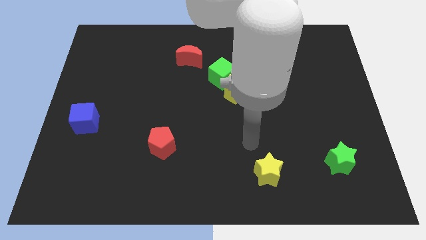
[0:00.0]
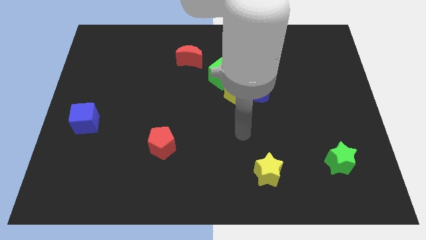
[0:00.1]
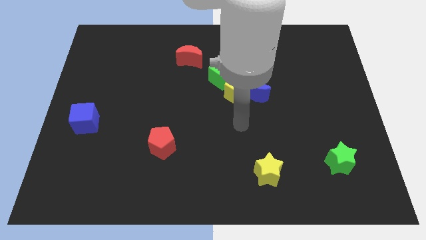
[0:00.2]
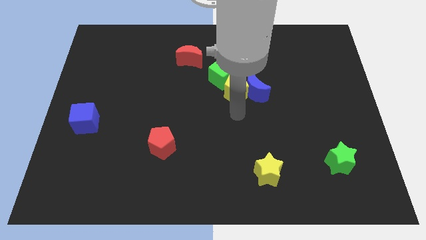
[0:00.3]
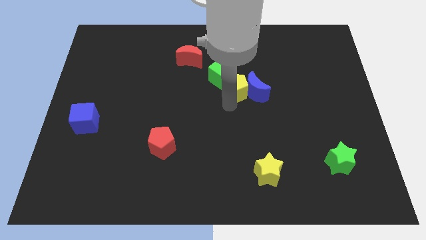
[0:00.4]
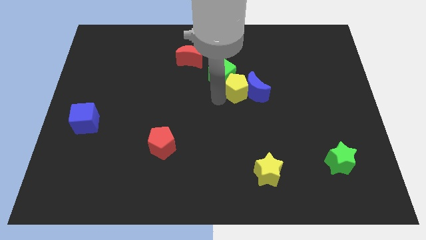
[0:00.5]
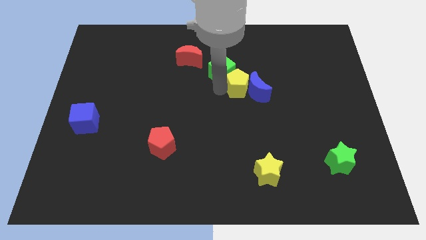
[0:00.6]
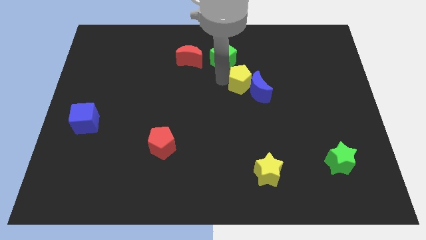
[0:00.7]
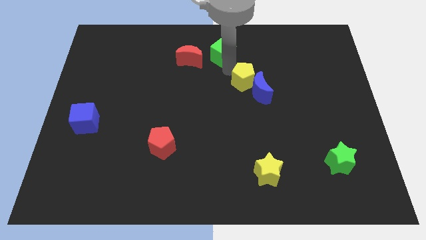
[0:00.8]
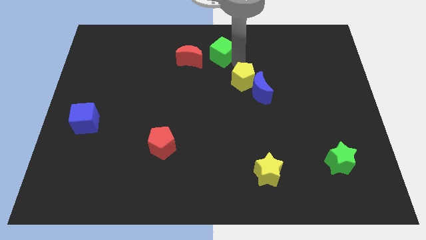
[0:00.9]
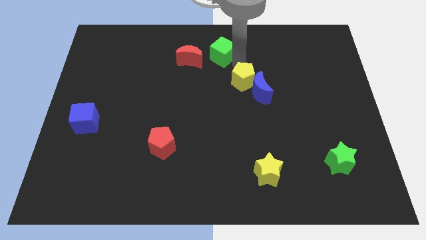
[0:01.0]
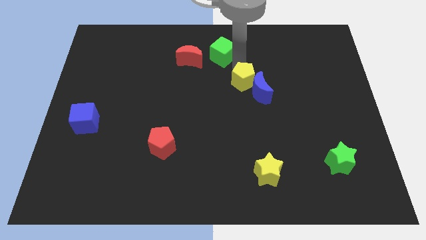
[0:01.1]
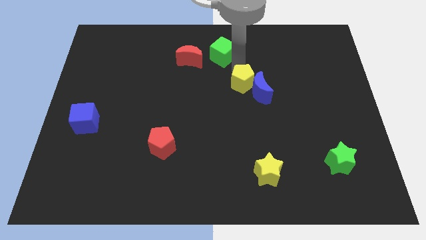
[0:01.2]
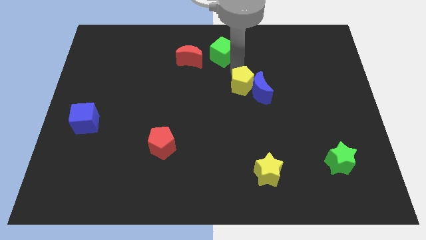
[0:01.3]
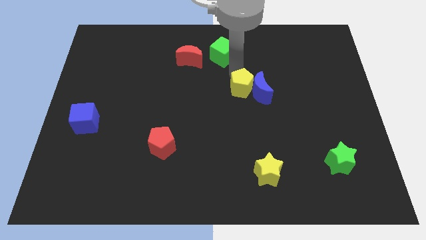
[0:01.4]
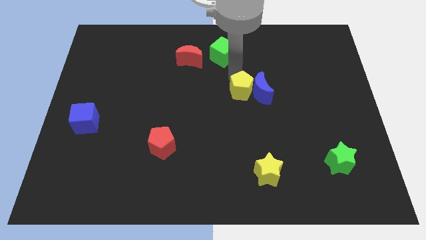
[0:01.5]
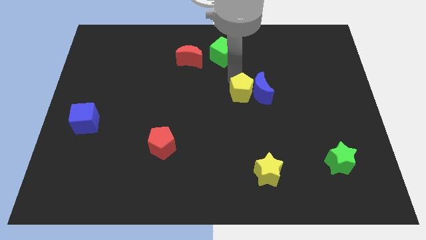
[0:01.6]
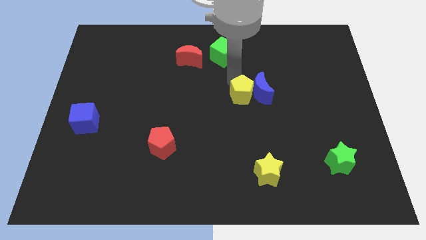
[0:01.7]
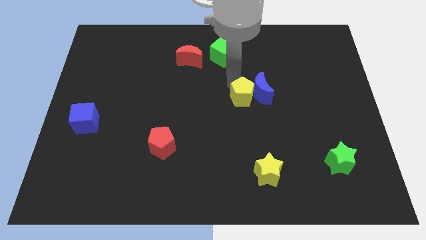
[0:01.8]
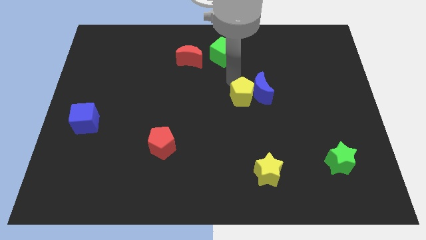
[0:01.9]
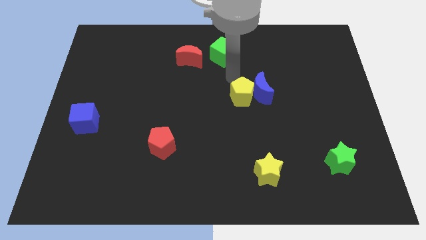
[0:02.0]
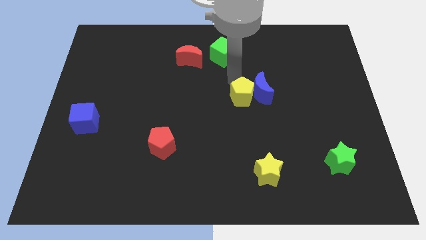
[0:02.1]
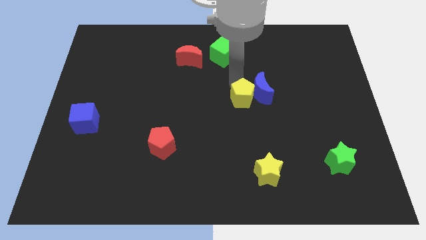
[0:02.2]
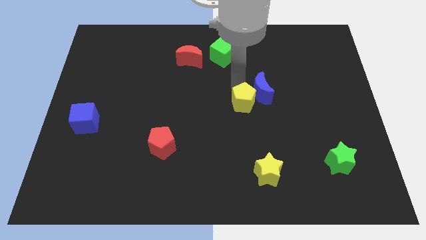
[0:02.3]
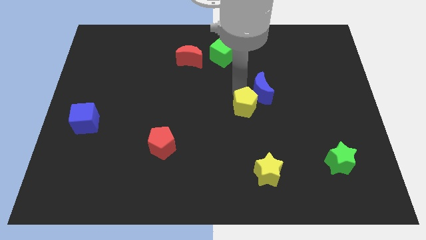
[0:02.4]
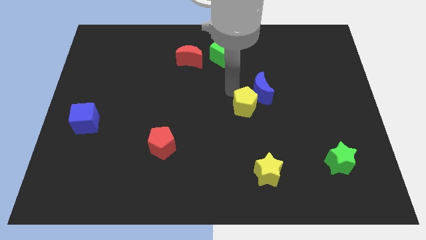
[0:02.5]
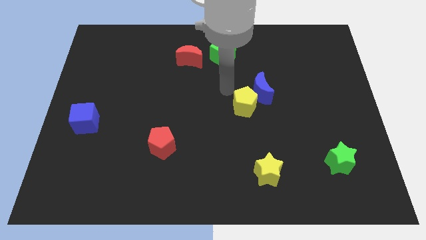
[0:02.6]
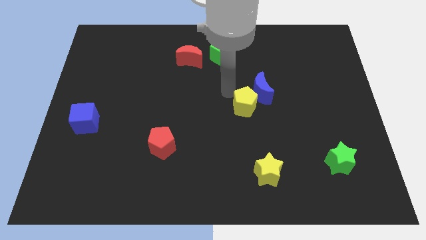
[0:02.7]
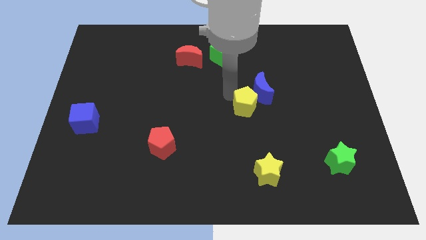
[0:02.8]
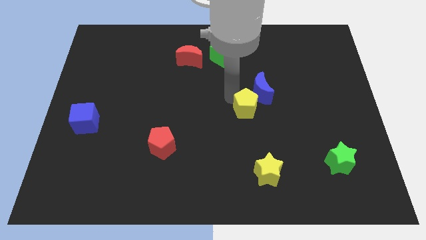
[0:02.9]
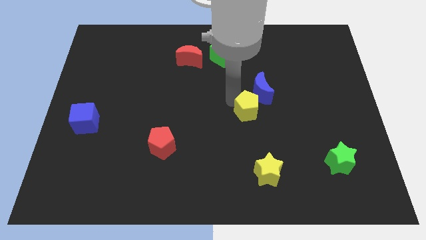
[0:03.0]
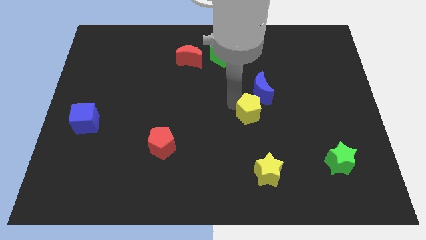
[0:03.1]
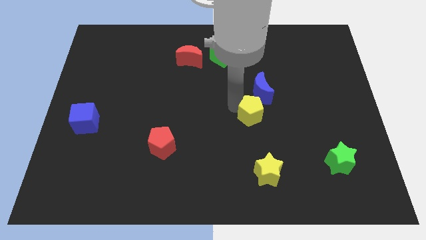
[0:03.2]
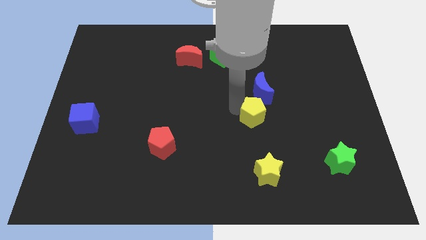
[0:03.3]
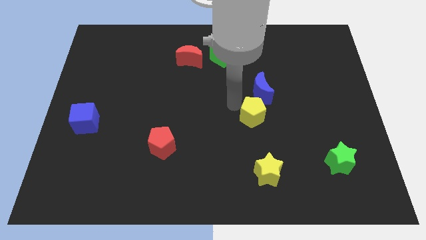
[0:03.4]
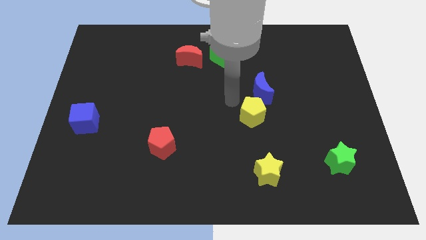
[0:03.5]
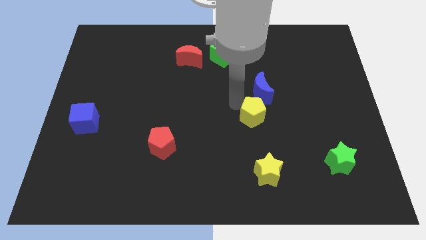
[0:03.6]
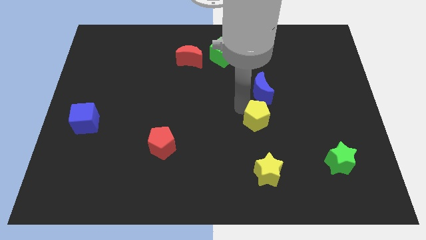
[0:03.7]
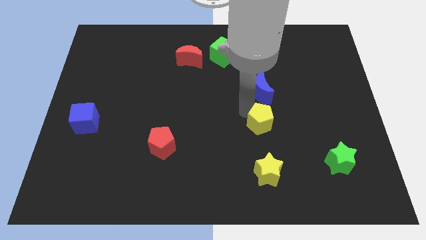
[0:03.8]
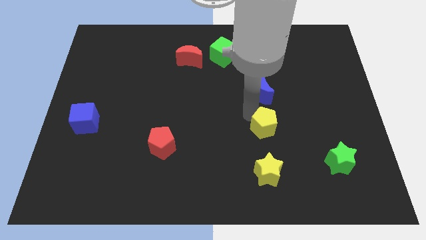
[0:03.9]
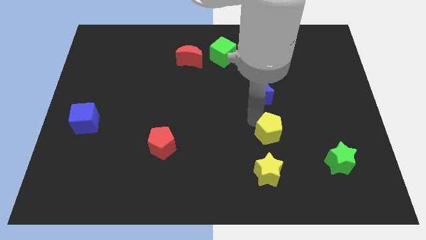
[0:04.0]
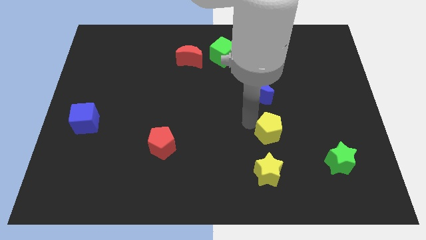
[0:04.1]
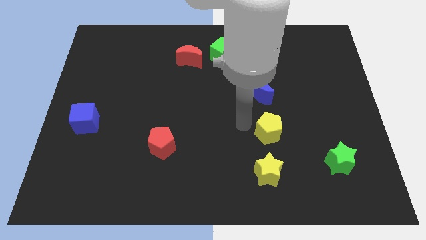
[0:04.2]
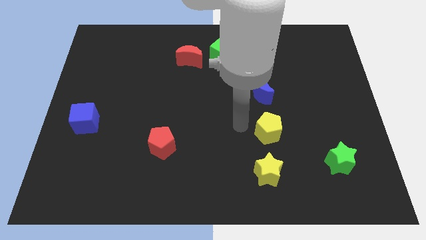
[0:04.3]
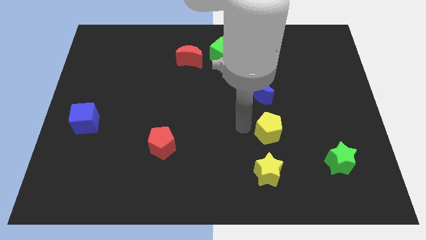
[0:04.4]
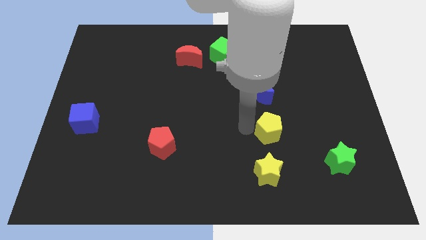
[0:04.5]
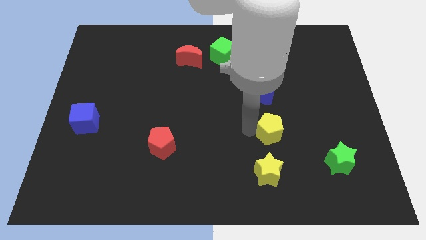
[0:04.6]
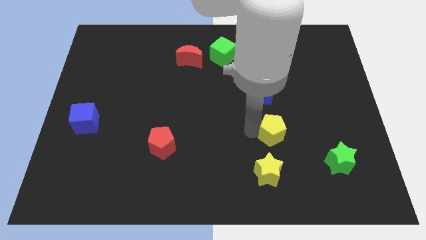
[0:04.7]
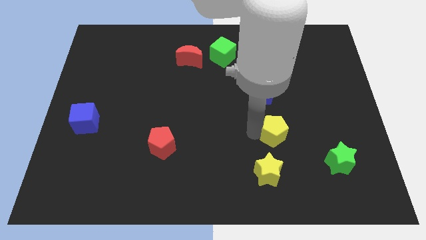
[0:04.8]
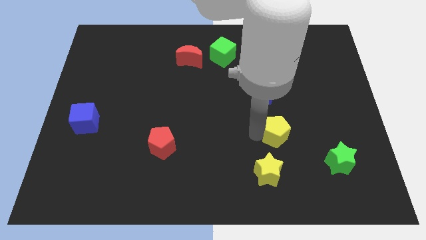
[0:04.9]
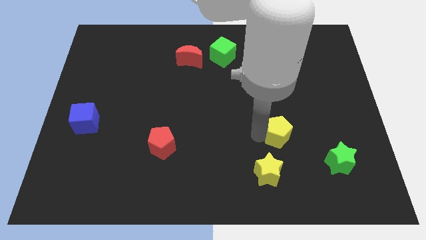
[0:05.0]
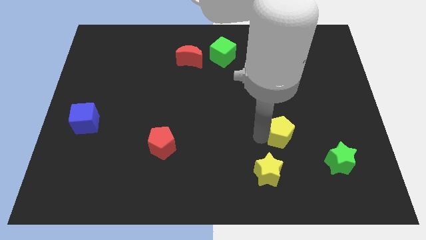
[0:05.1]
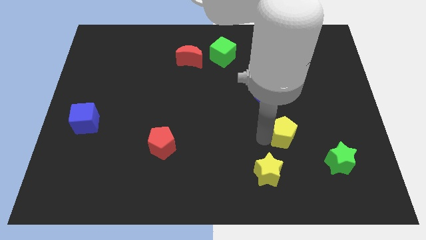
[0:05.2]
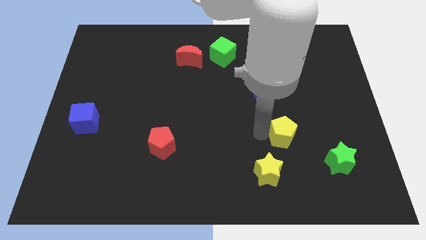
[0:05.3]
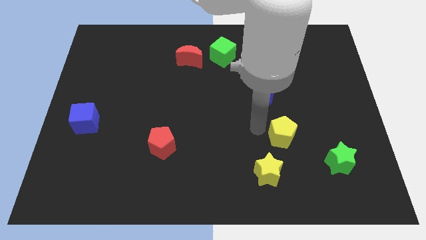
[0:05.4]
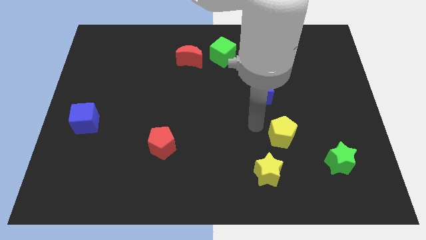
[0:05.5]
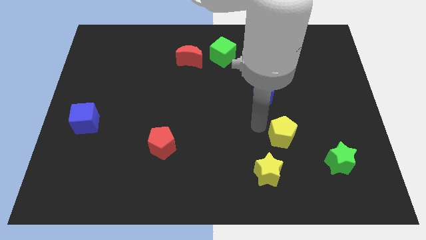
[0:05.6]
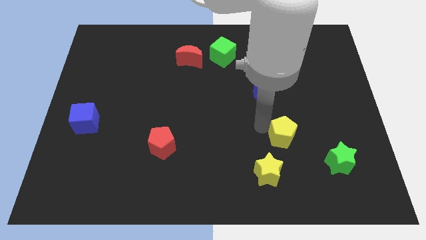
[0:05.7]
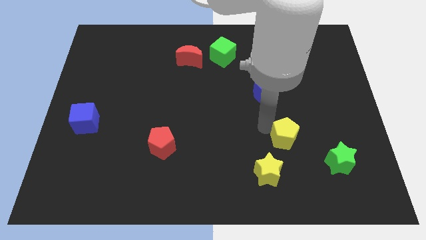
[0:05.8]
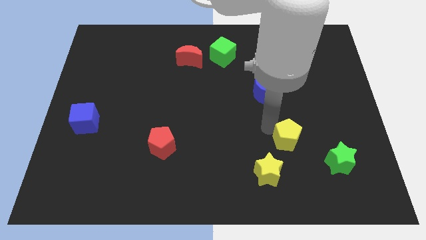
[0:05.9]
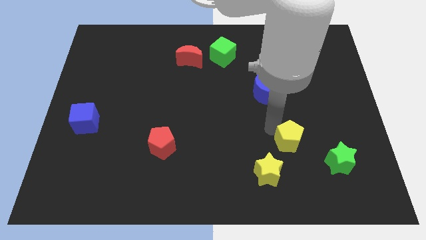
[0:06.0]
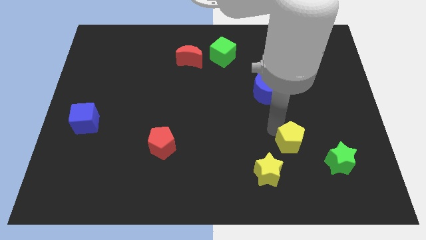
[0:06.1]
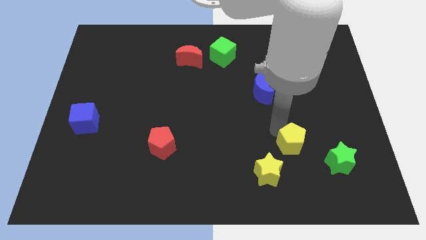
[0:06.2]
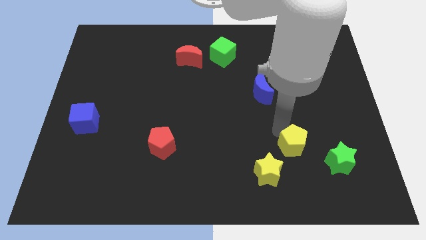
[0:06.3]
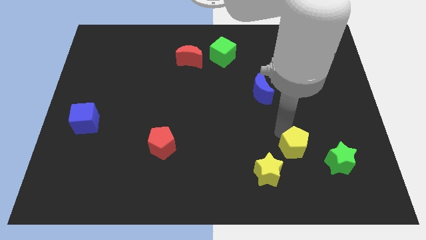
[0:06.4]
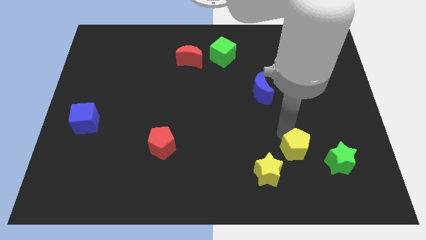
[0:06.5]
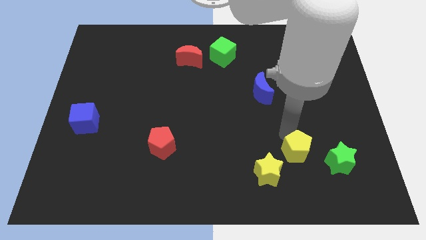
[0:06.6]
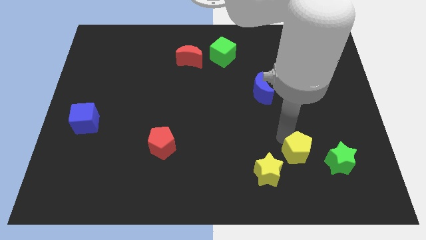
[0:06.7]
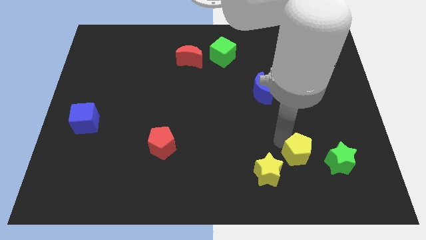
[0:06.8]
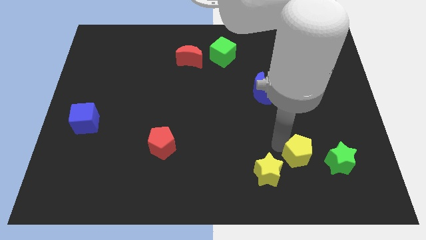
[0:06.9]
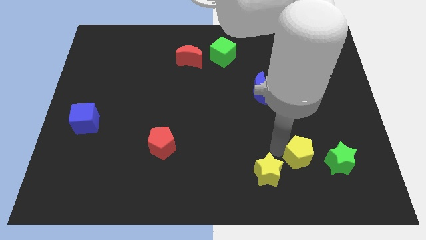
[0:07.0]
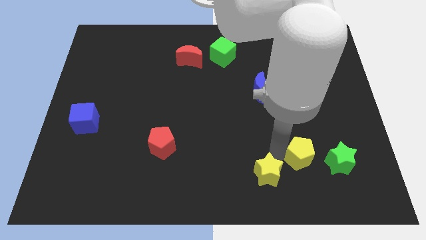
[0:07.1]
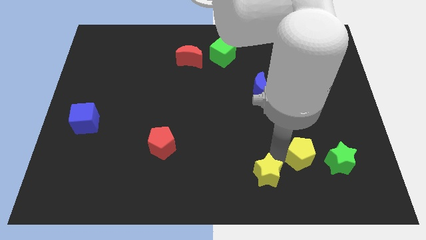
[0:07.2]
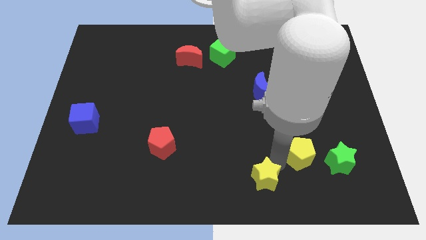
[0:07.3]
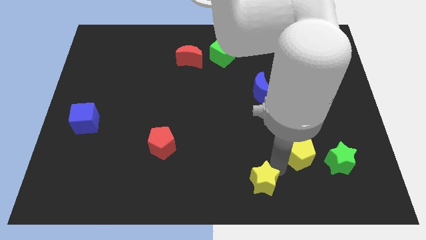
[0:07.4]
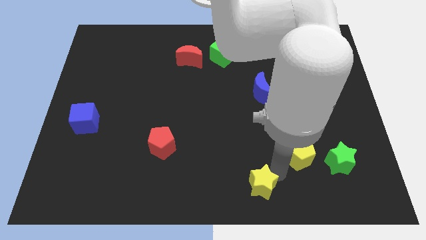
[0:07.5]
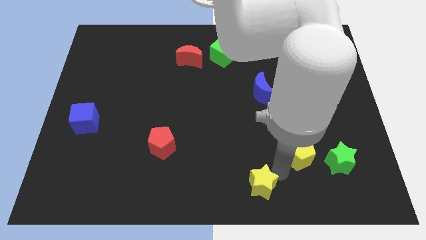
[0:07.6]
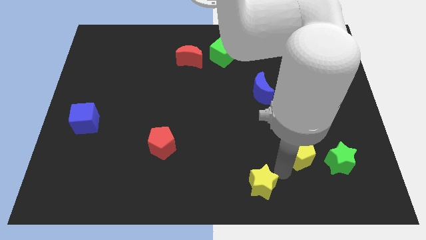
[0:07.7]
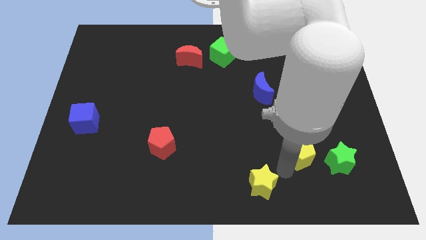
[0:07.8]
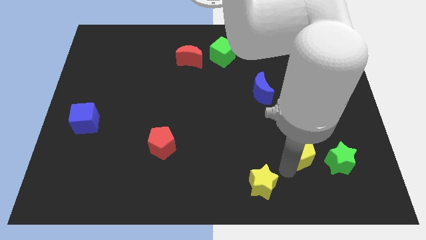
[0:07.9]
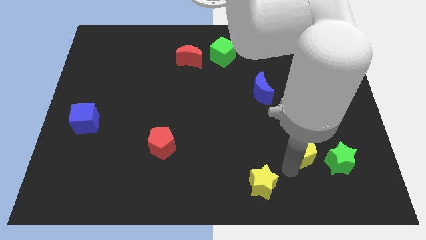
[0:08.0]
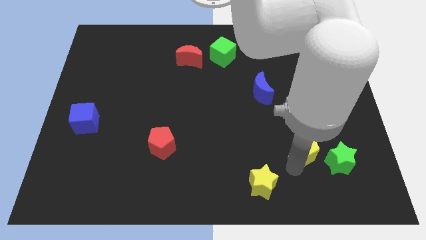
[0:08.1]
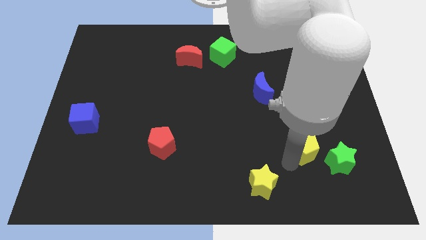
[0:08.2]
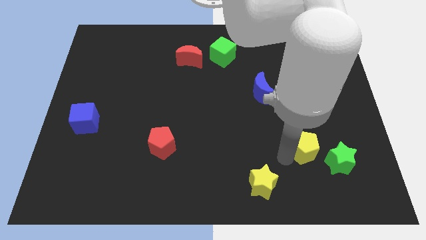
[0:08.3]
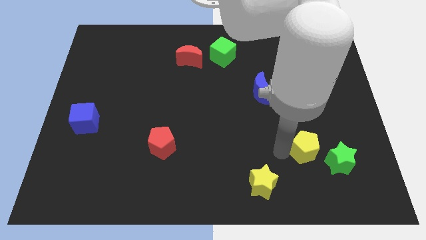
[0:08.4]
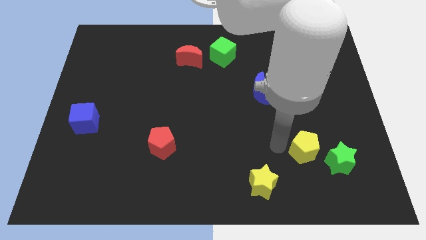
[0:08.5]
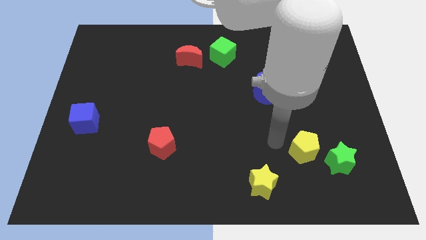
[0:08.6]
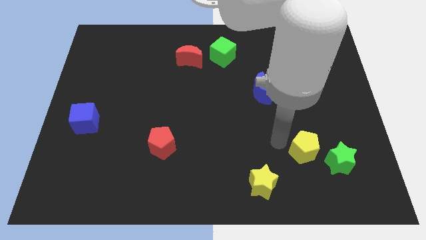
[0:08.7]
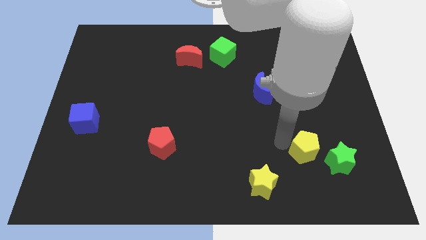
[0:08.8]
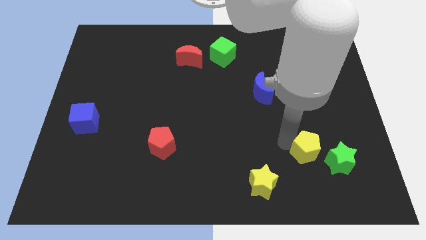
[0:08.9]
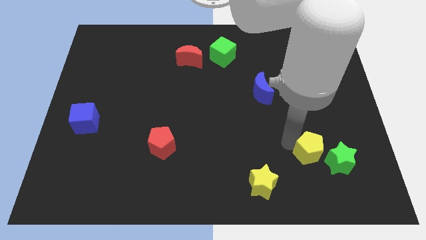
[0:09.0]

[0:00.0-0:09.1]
put the yellow pentagon to the green star
